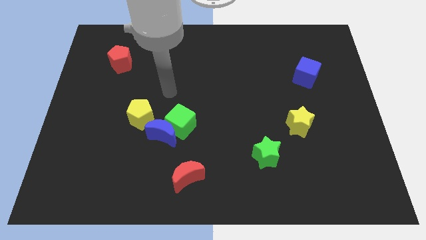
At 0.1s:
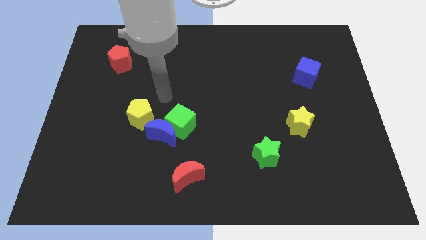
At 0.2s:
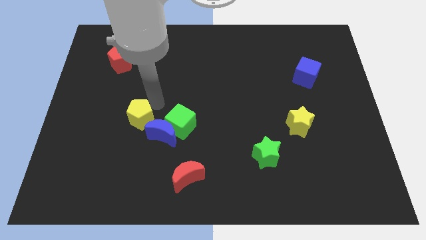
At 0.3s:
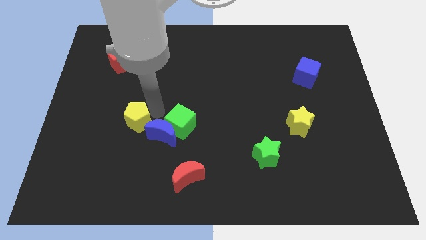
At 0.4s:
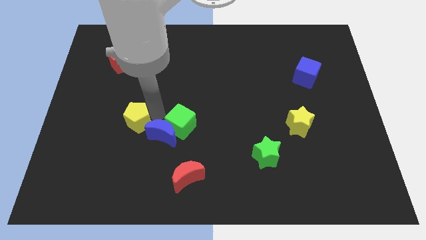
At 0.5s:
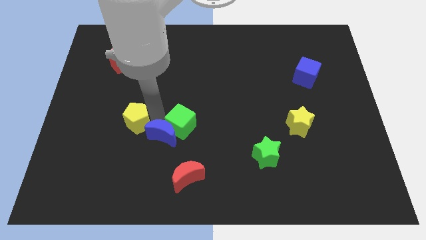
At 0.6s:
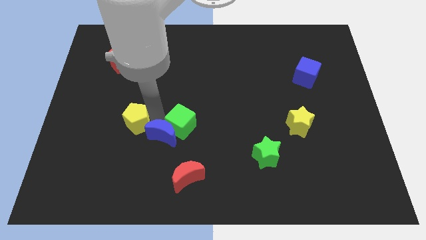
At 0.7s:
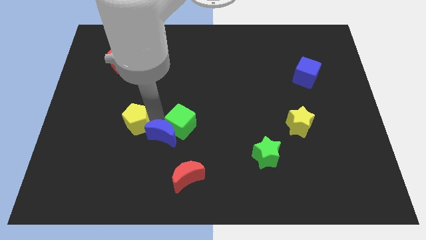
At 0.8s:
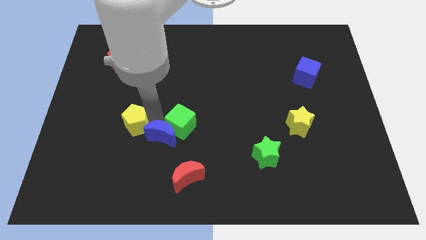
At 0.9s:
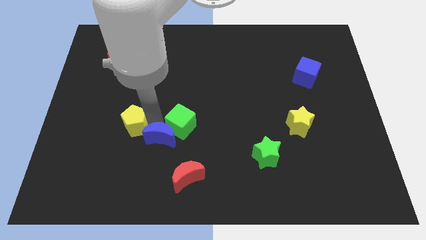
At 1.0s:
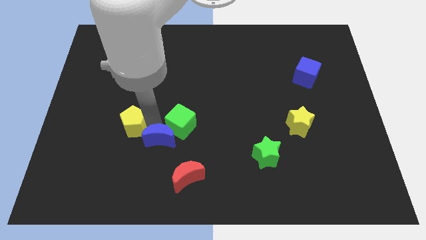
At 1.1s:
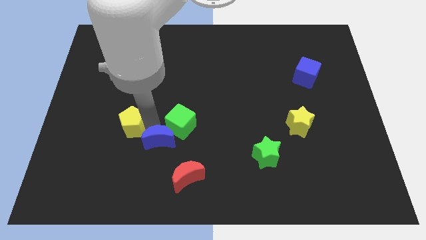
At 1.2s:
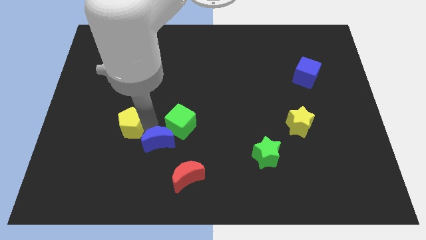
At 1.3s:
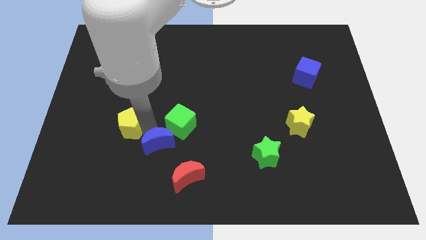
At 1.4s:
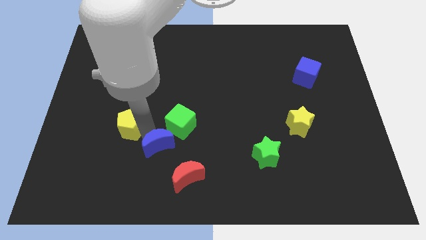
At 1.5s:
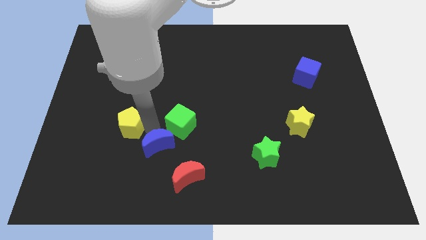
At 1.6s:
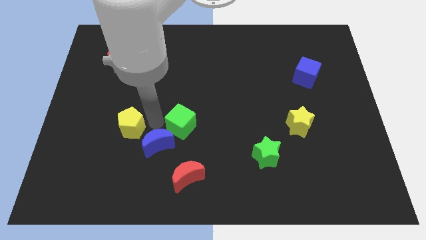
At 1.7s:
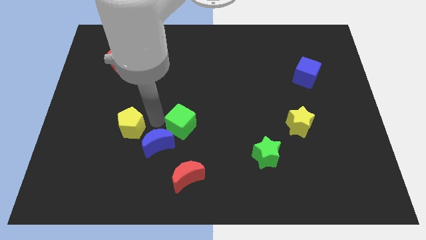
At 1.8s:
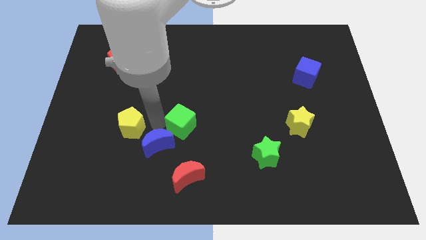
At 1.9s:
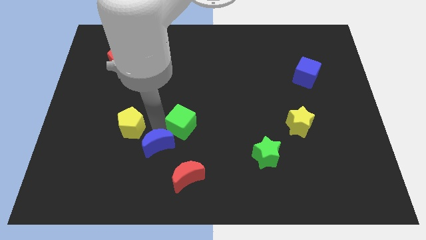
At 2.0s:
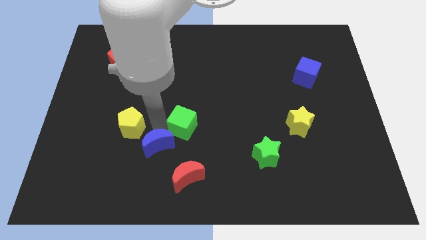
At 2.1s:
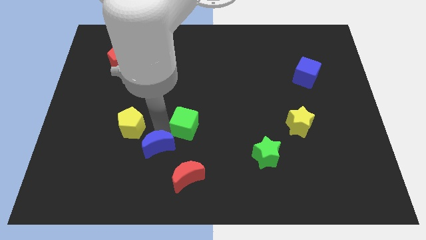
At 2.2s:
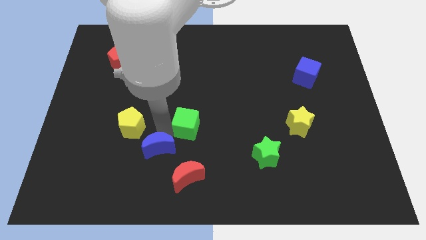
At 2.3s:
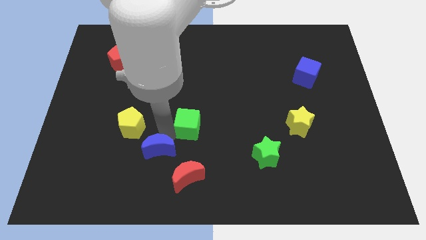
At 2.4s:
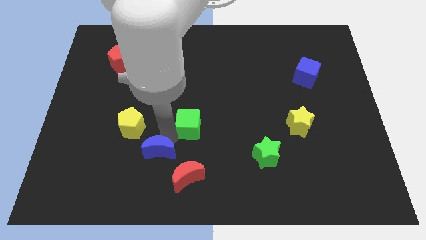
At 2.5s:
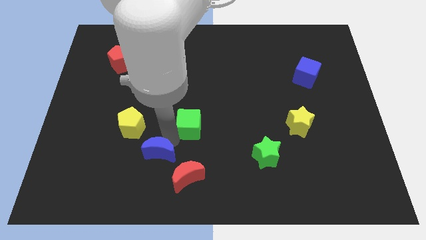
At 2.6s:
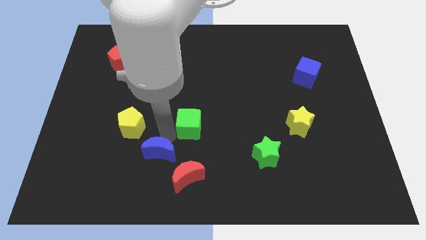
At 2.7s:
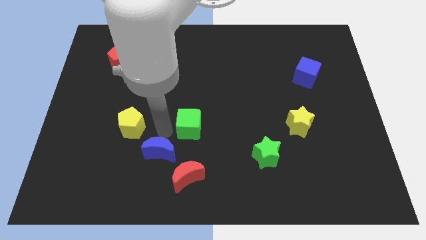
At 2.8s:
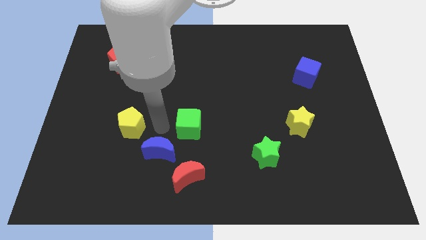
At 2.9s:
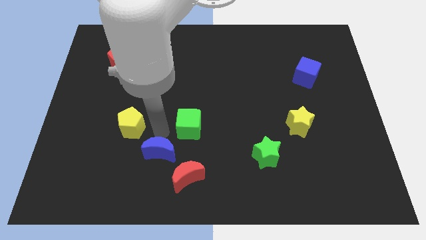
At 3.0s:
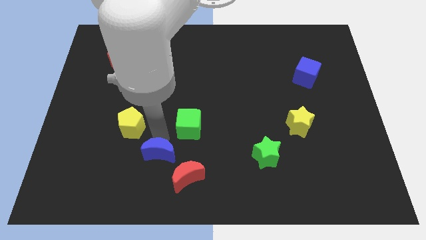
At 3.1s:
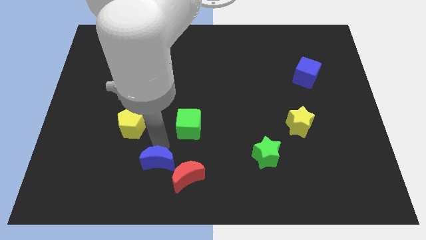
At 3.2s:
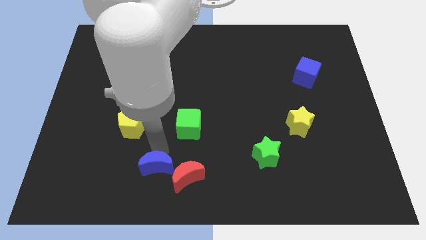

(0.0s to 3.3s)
pull the blue moon apart from the green cube and yellow pentagon

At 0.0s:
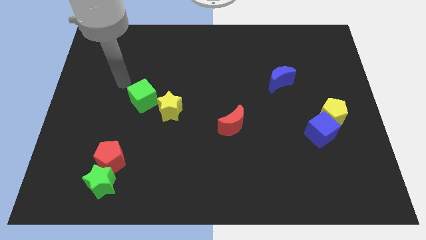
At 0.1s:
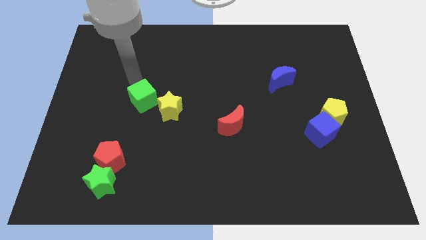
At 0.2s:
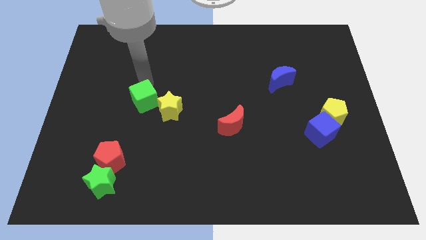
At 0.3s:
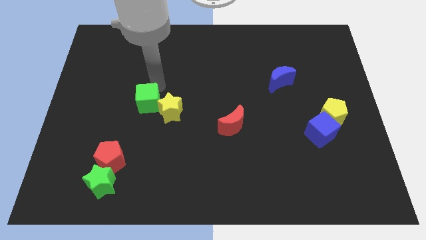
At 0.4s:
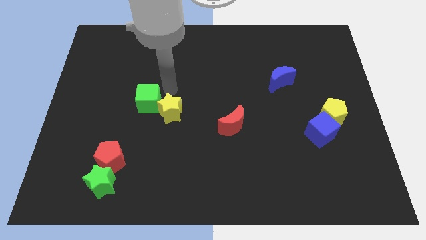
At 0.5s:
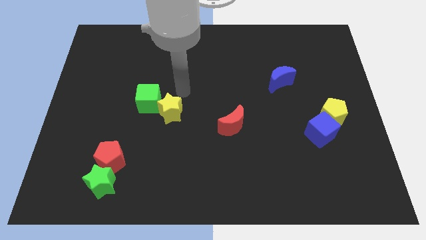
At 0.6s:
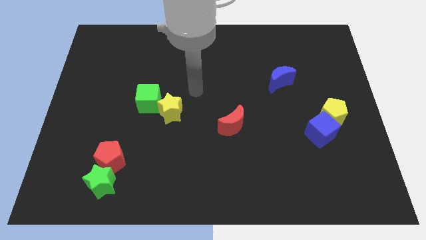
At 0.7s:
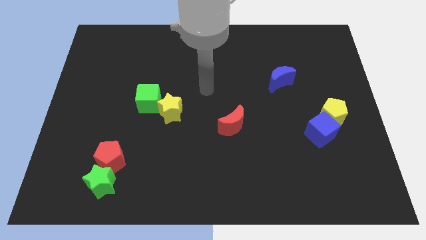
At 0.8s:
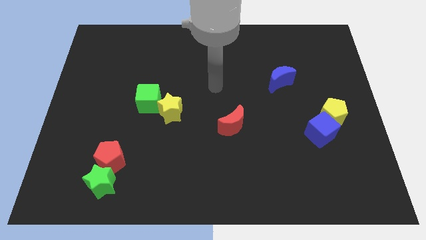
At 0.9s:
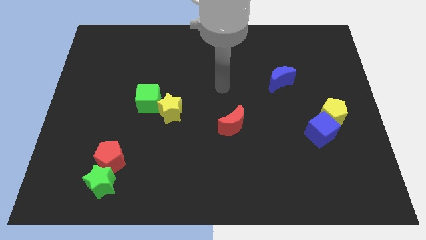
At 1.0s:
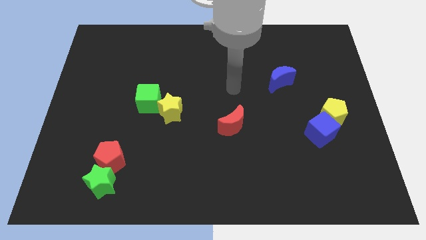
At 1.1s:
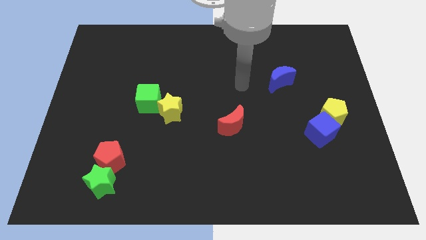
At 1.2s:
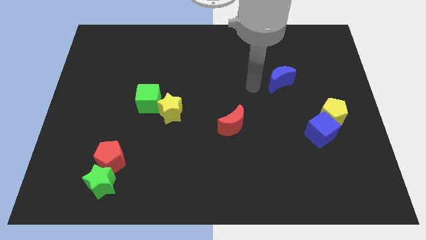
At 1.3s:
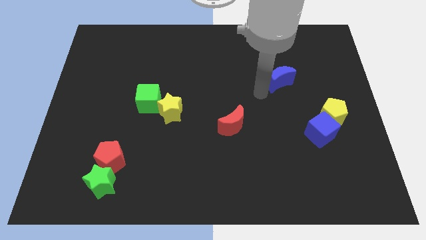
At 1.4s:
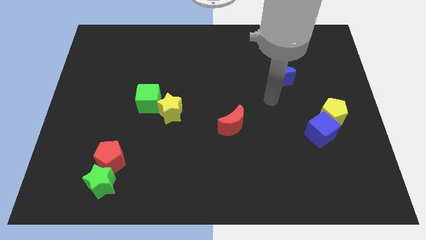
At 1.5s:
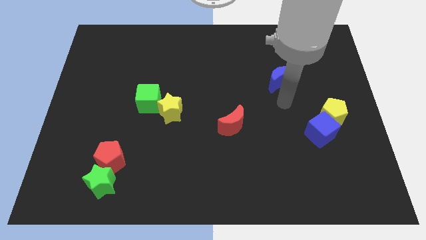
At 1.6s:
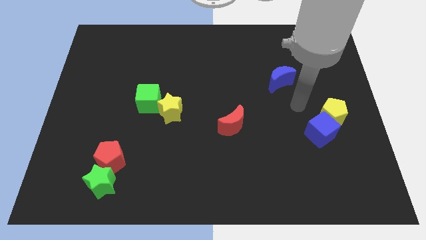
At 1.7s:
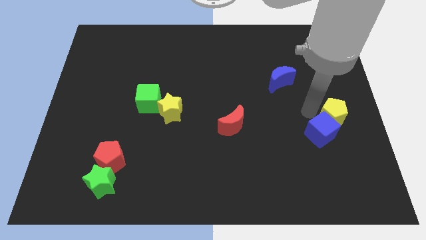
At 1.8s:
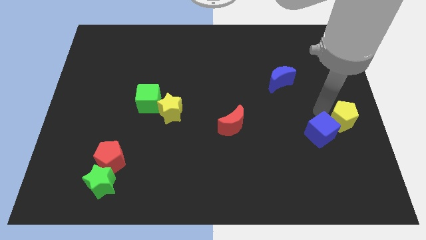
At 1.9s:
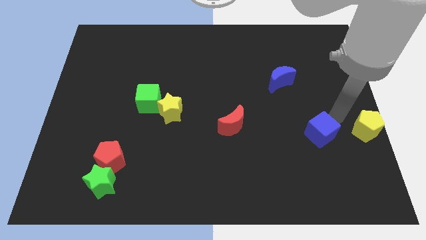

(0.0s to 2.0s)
move the blue cube away from the yellow pentagon

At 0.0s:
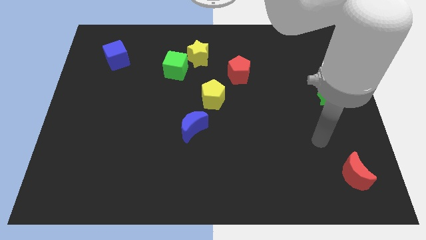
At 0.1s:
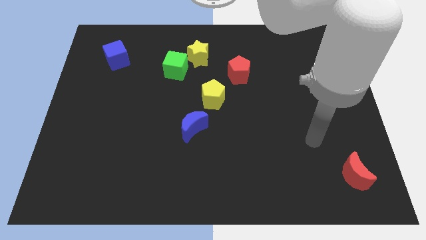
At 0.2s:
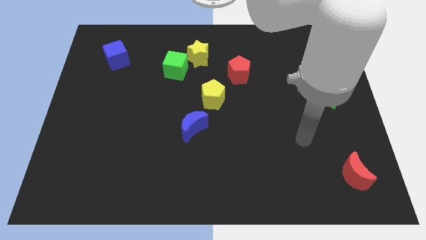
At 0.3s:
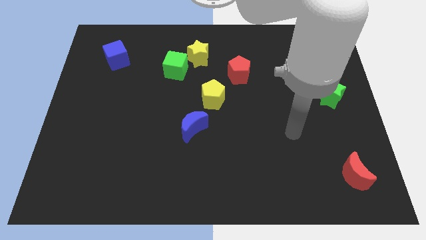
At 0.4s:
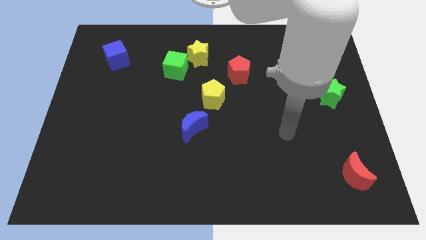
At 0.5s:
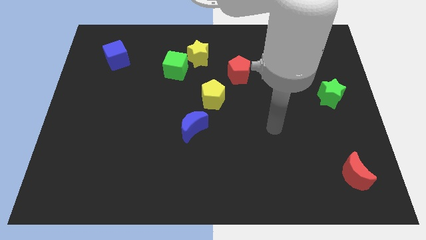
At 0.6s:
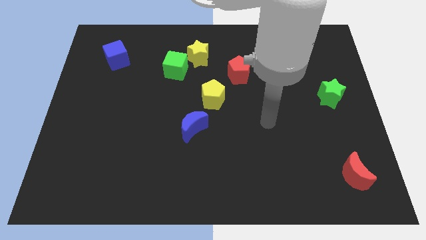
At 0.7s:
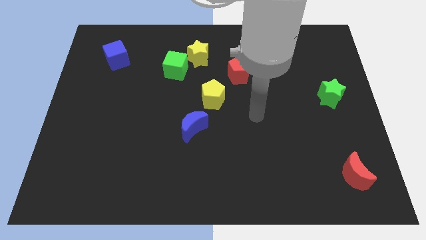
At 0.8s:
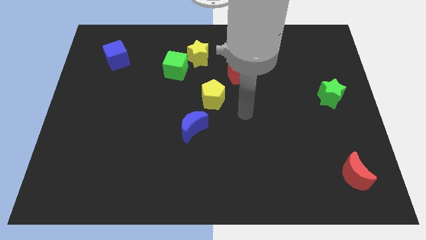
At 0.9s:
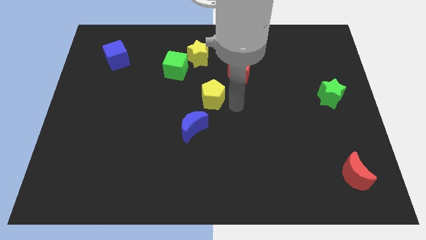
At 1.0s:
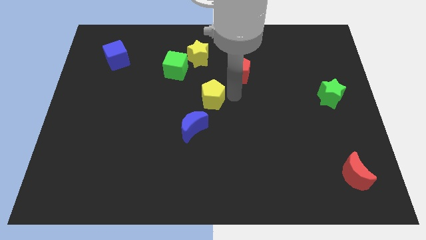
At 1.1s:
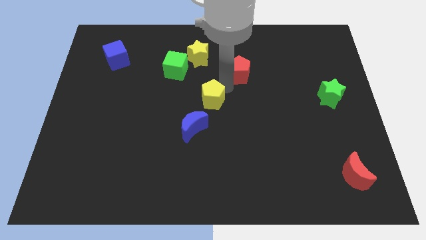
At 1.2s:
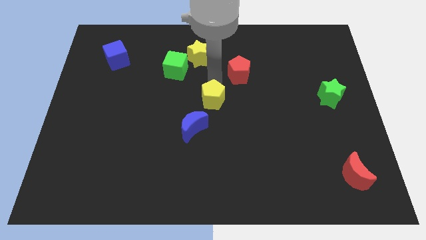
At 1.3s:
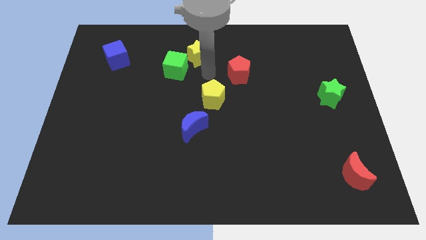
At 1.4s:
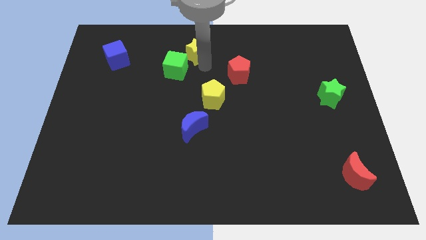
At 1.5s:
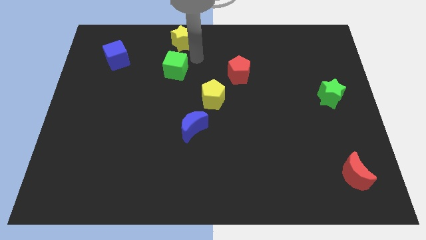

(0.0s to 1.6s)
pull the green cube apart from the yellow star

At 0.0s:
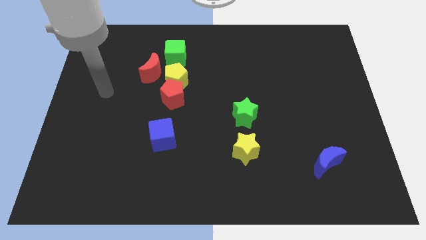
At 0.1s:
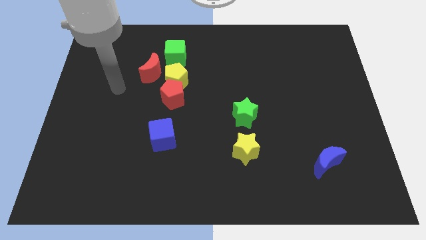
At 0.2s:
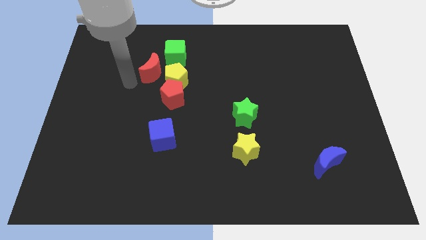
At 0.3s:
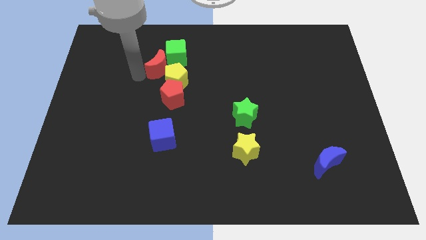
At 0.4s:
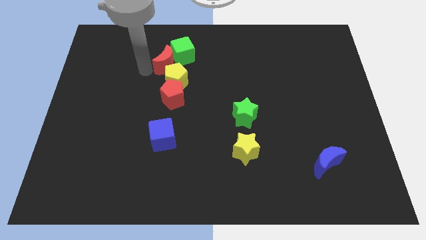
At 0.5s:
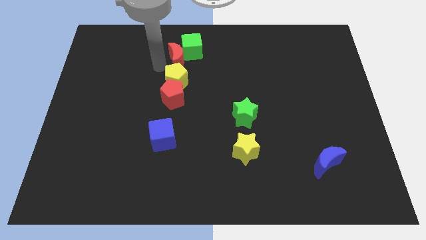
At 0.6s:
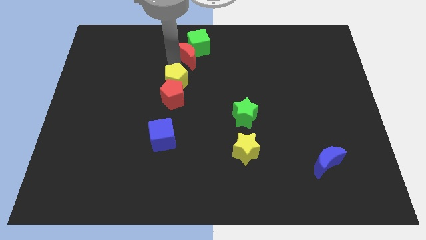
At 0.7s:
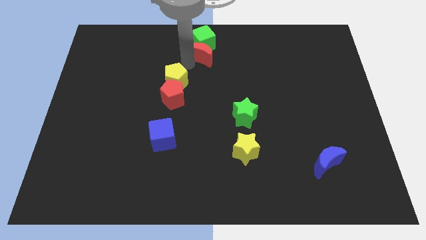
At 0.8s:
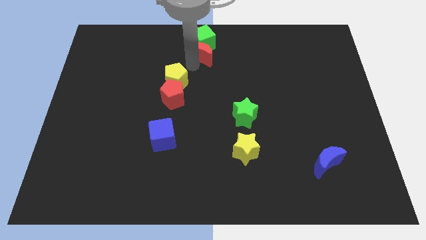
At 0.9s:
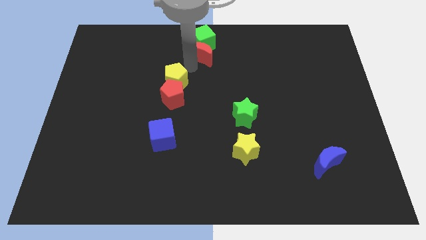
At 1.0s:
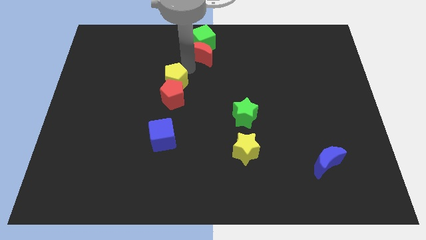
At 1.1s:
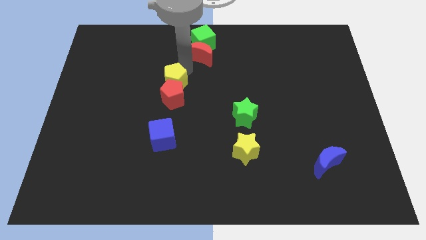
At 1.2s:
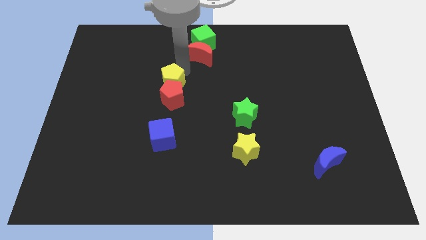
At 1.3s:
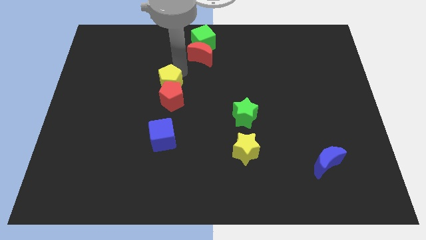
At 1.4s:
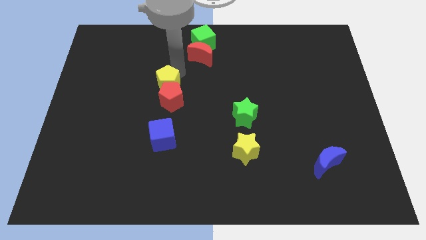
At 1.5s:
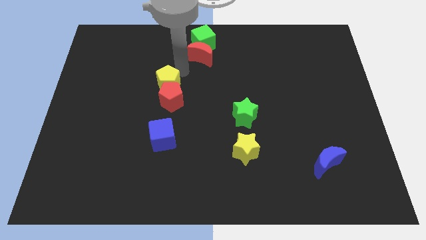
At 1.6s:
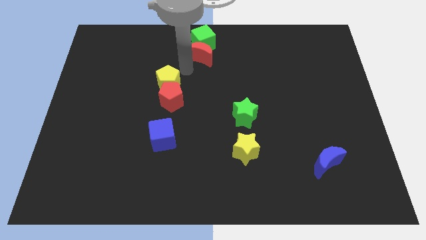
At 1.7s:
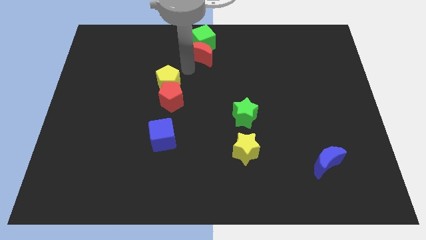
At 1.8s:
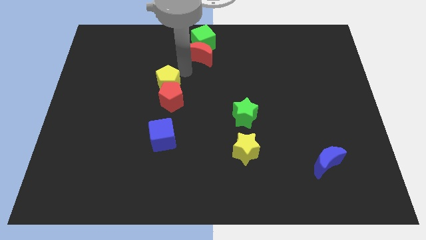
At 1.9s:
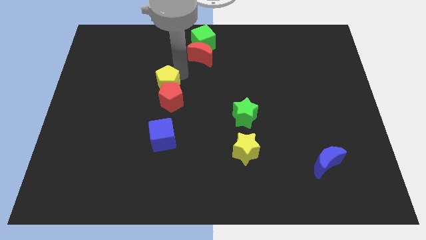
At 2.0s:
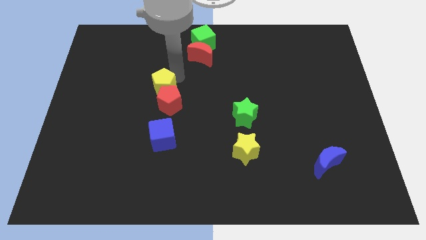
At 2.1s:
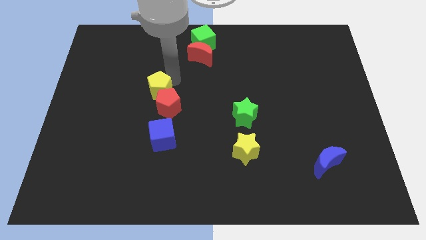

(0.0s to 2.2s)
pull the yellow pentagon apart from the clump

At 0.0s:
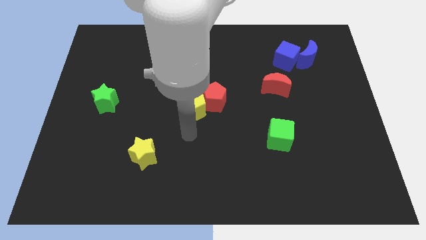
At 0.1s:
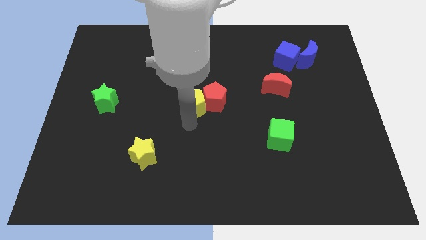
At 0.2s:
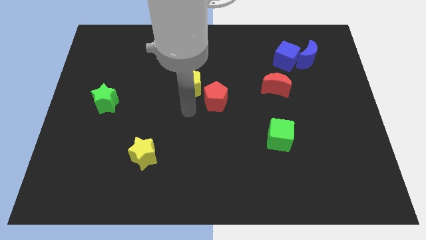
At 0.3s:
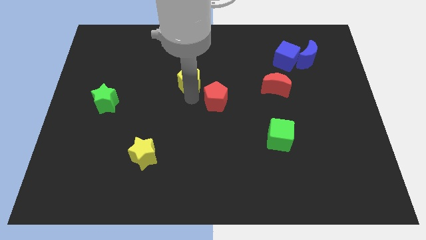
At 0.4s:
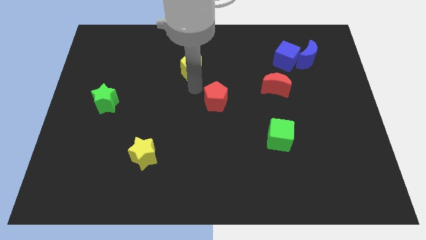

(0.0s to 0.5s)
move the red pentagon away from the yellow pentagon
